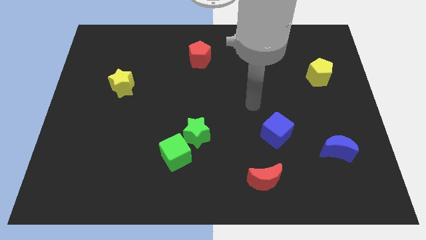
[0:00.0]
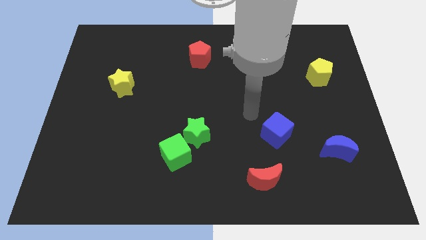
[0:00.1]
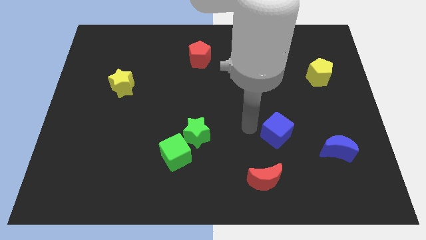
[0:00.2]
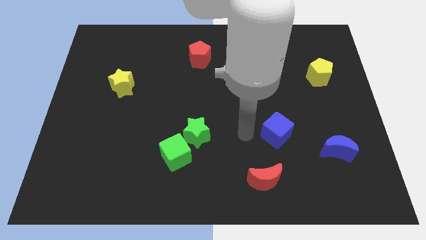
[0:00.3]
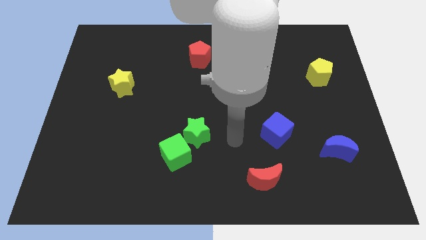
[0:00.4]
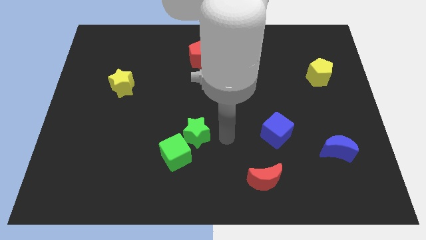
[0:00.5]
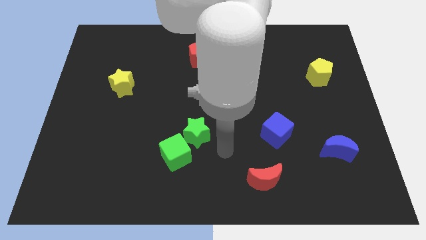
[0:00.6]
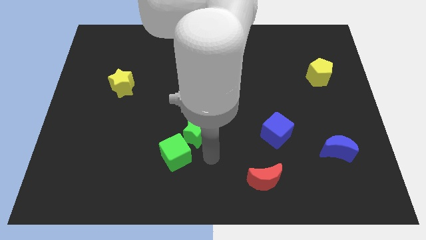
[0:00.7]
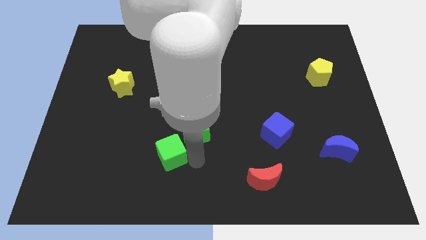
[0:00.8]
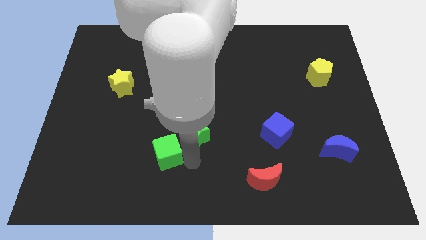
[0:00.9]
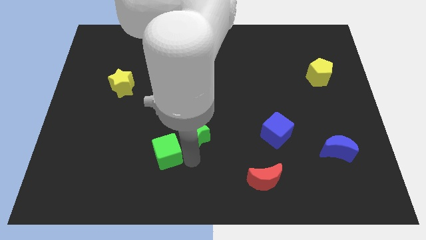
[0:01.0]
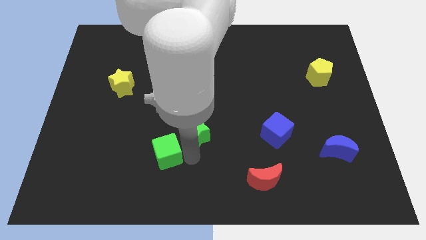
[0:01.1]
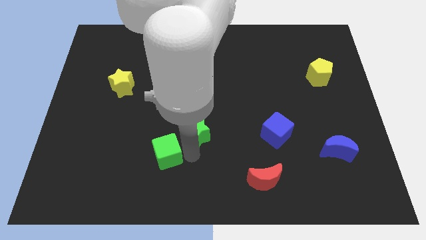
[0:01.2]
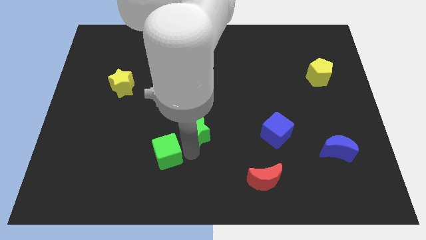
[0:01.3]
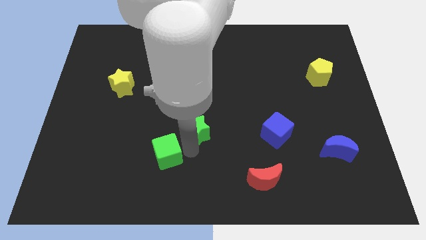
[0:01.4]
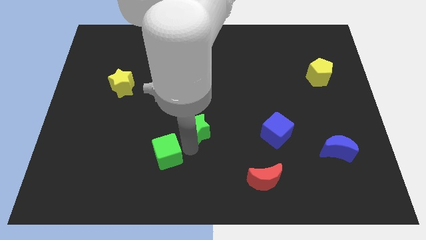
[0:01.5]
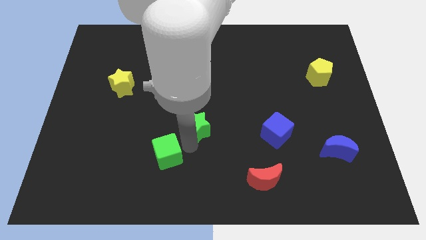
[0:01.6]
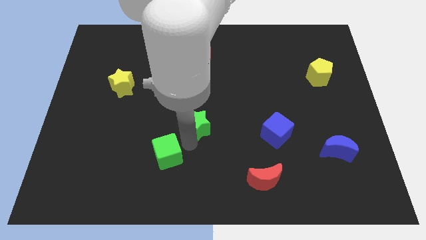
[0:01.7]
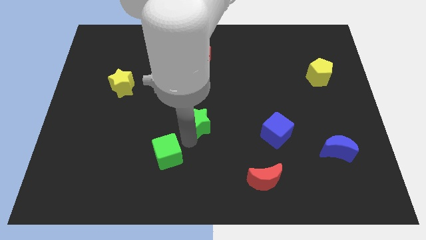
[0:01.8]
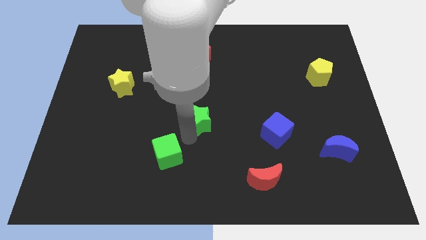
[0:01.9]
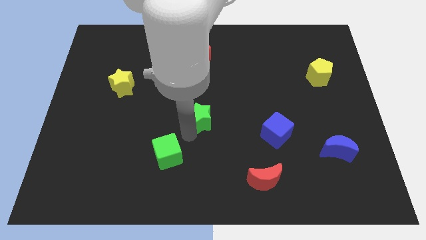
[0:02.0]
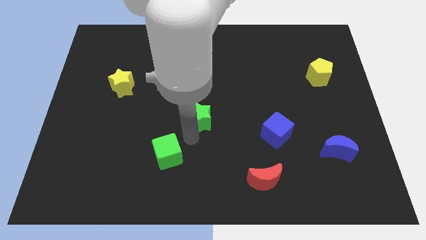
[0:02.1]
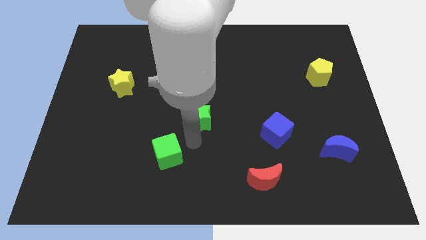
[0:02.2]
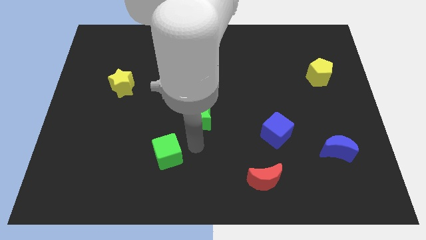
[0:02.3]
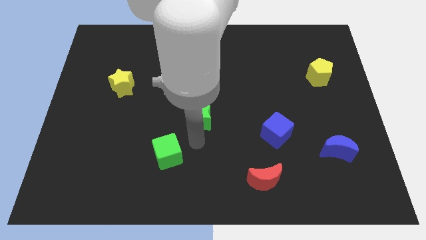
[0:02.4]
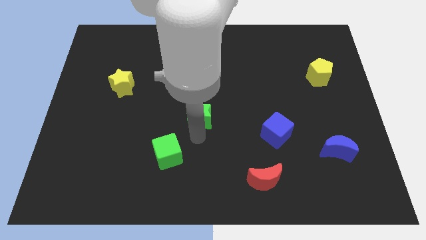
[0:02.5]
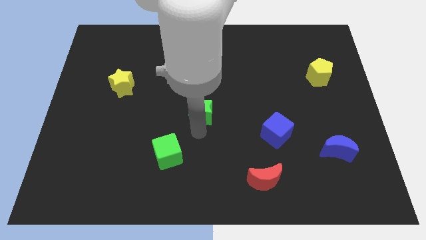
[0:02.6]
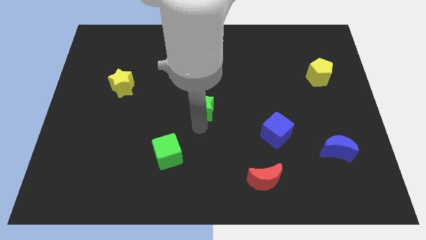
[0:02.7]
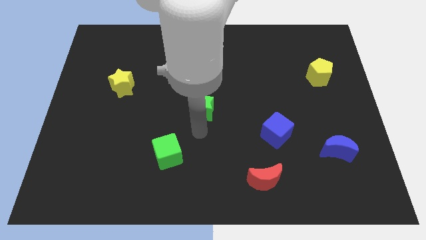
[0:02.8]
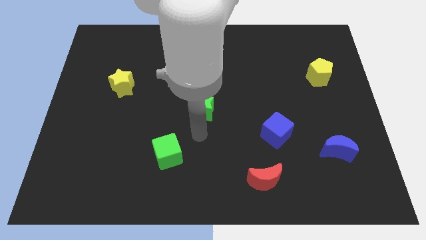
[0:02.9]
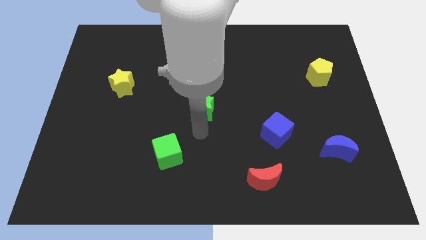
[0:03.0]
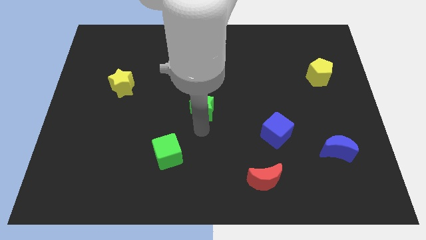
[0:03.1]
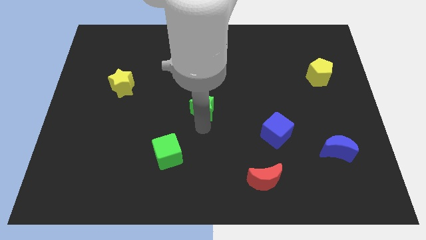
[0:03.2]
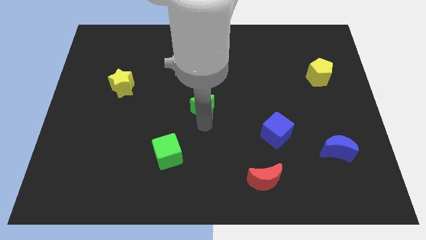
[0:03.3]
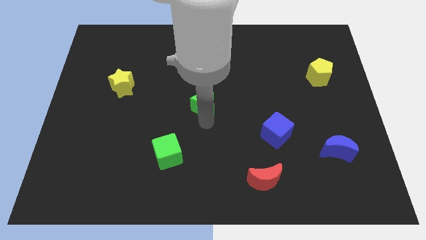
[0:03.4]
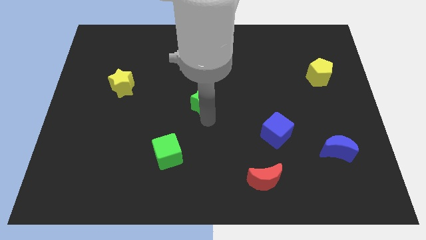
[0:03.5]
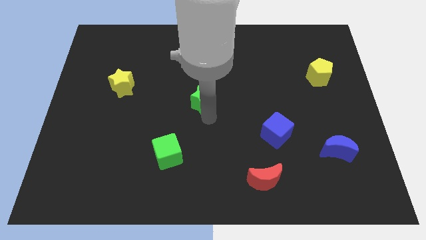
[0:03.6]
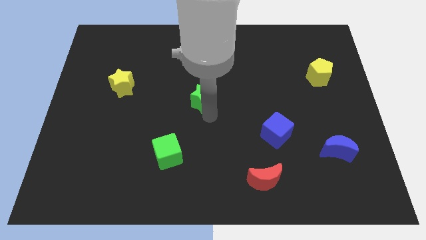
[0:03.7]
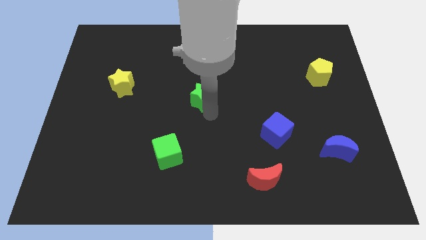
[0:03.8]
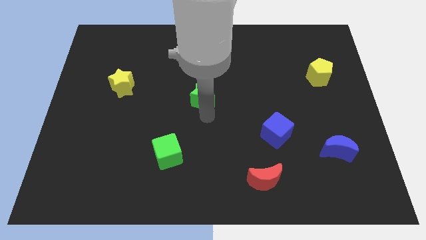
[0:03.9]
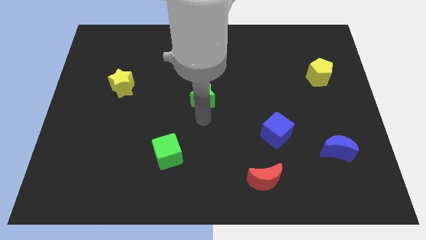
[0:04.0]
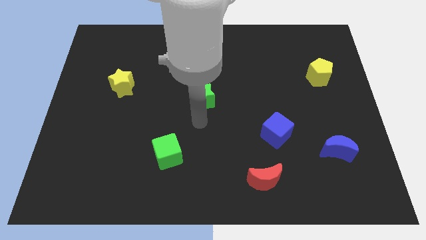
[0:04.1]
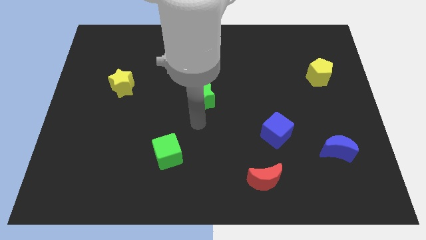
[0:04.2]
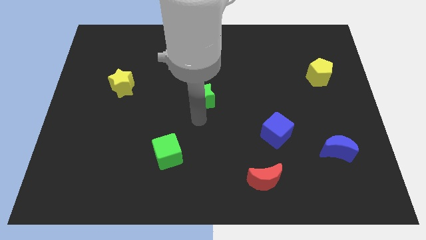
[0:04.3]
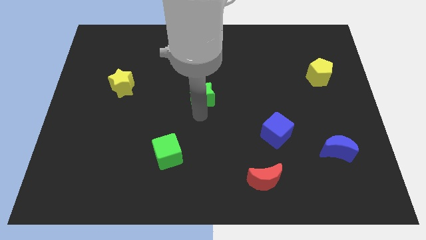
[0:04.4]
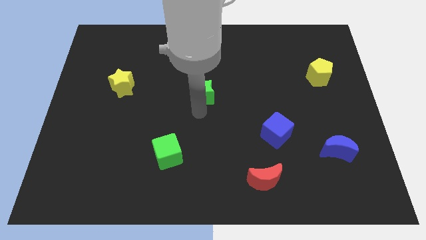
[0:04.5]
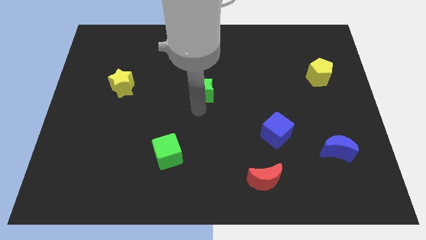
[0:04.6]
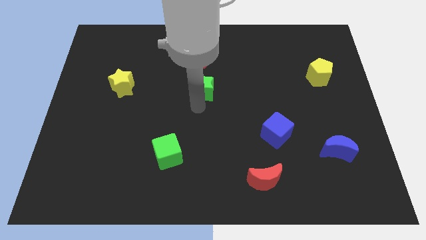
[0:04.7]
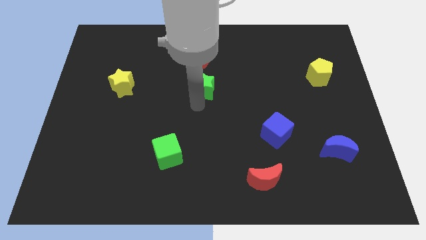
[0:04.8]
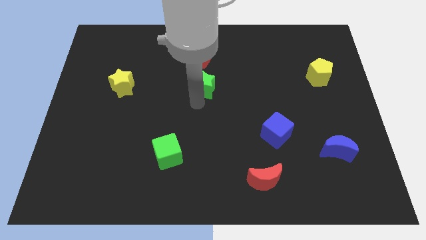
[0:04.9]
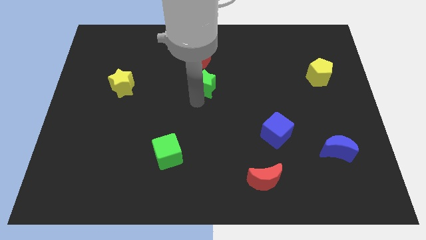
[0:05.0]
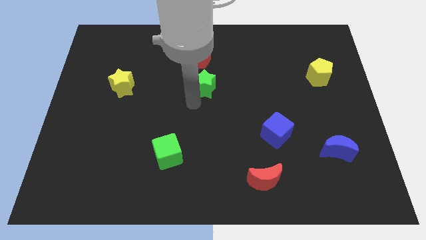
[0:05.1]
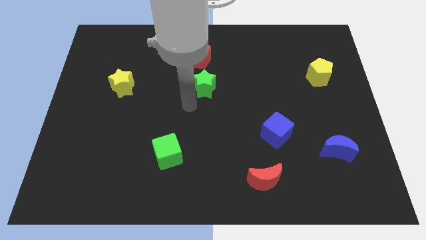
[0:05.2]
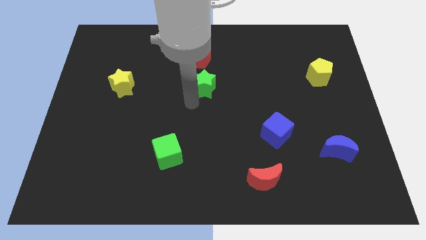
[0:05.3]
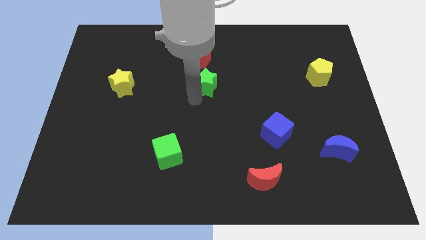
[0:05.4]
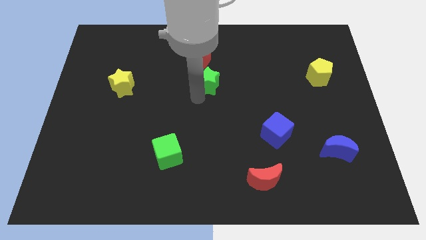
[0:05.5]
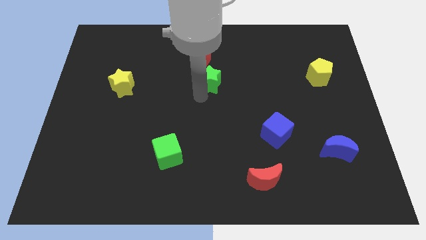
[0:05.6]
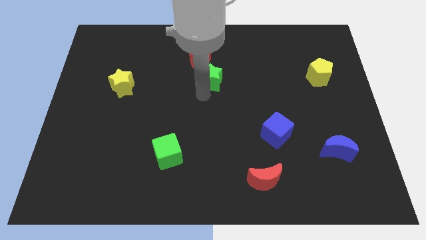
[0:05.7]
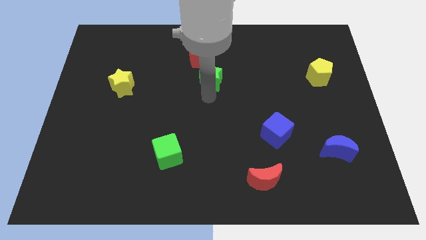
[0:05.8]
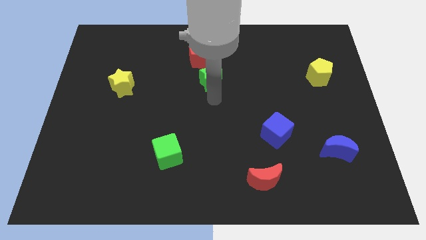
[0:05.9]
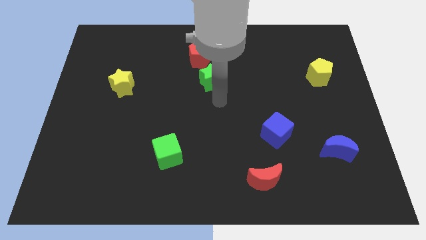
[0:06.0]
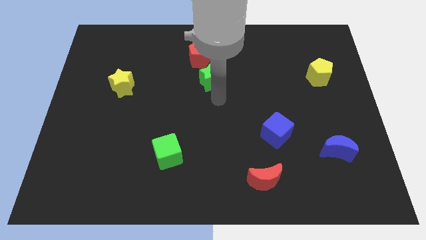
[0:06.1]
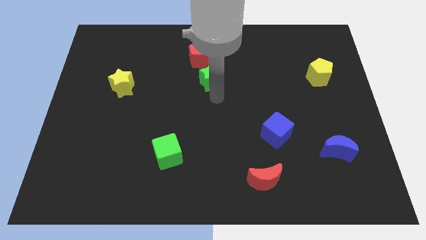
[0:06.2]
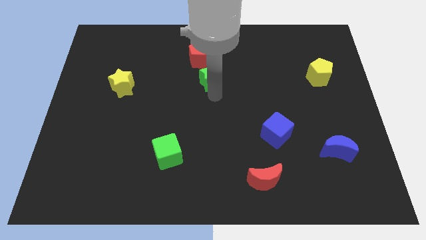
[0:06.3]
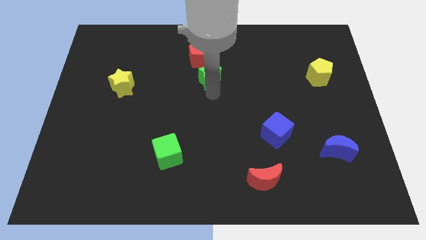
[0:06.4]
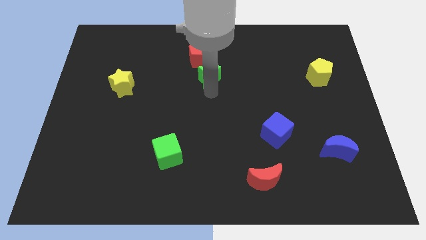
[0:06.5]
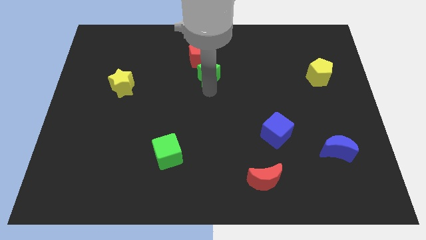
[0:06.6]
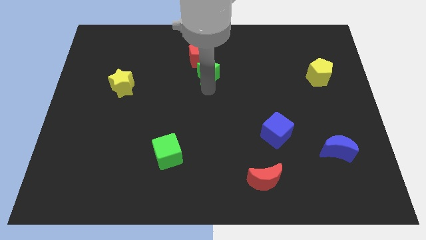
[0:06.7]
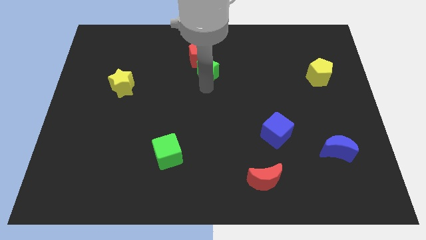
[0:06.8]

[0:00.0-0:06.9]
put the green star to the red pentagon

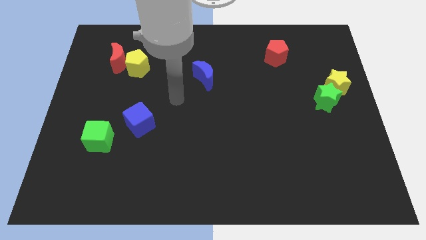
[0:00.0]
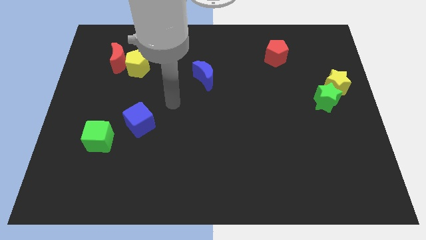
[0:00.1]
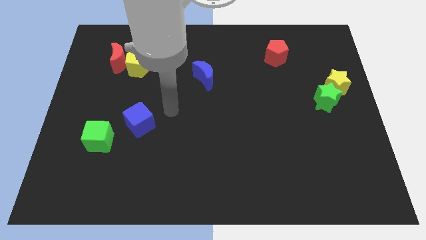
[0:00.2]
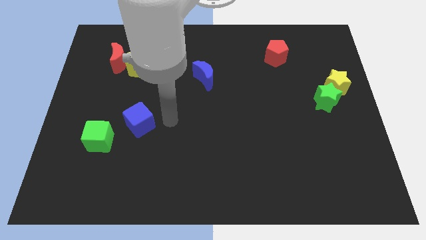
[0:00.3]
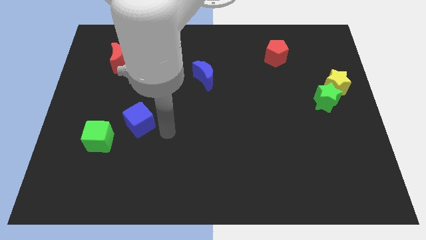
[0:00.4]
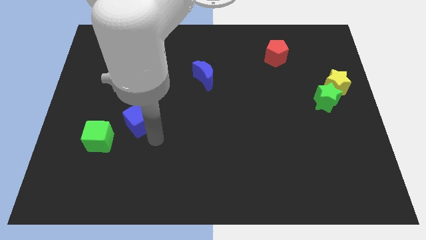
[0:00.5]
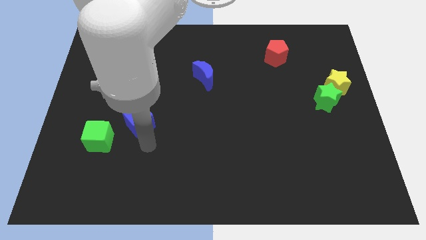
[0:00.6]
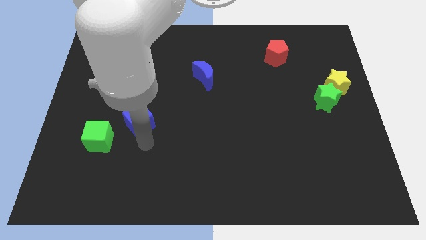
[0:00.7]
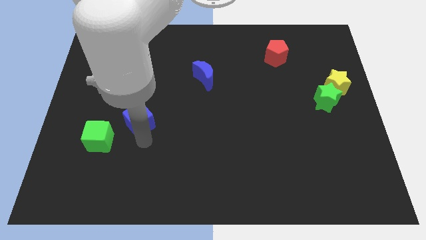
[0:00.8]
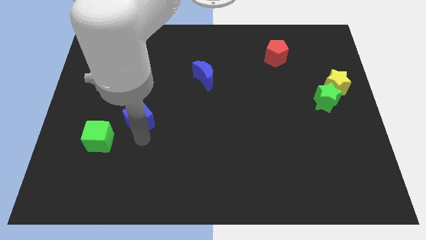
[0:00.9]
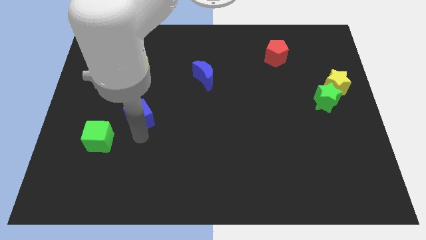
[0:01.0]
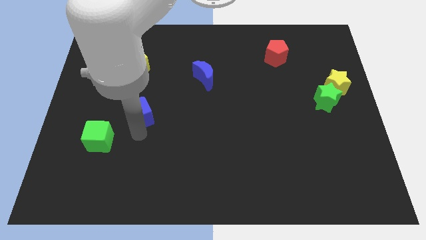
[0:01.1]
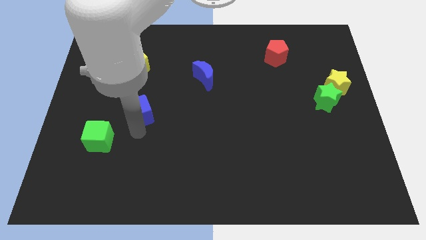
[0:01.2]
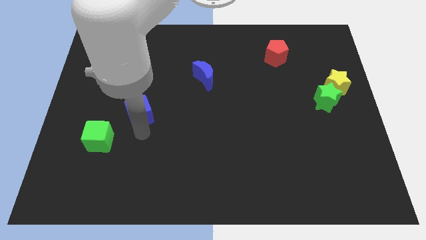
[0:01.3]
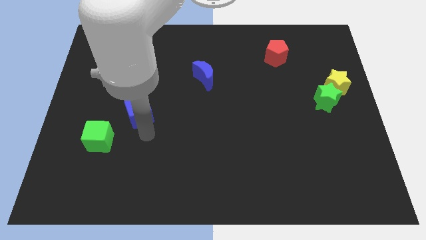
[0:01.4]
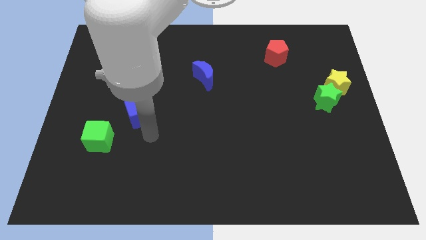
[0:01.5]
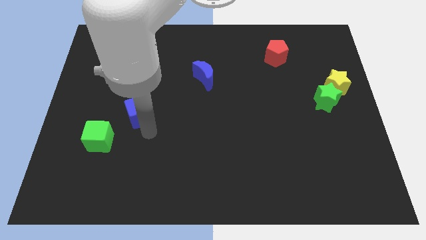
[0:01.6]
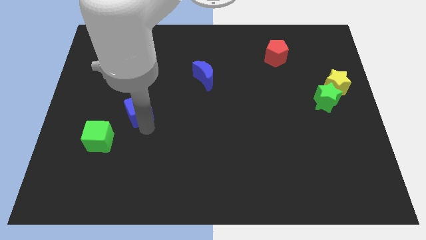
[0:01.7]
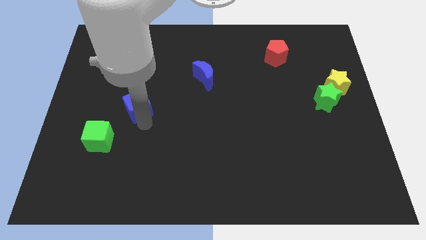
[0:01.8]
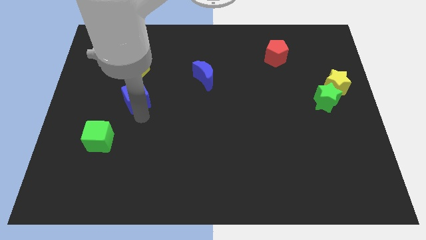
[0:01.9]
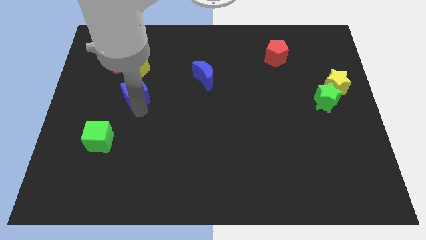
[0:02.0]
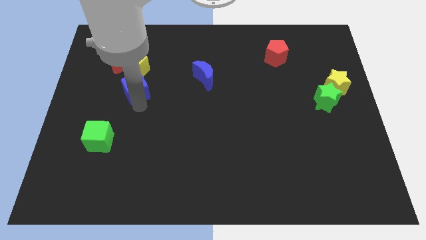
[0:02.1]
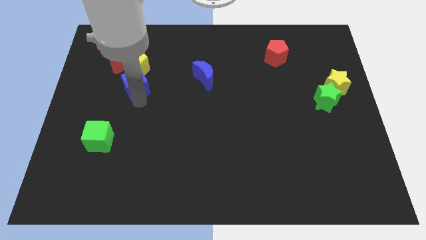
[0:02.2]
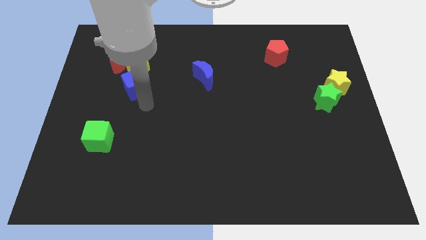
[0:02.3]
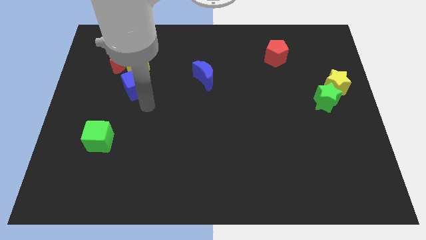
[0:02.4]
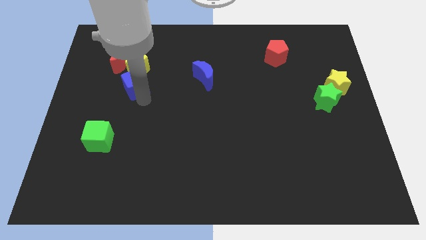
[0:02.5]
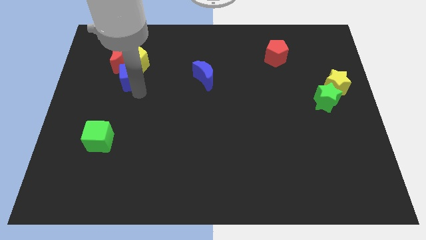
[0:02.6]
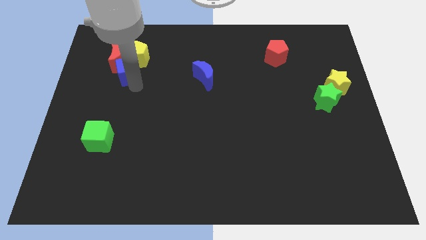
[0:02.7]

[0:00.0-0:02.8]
move the blue cube towards the red moon
